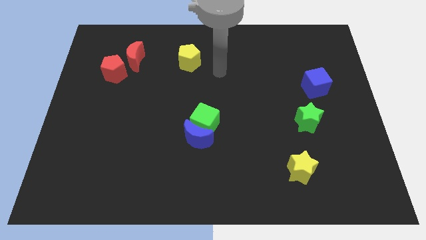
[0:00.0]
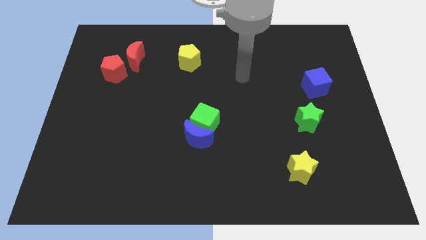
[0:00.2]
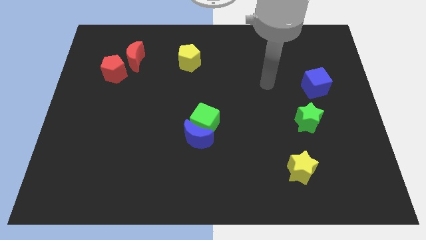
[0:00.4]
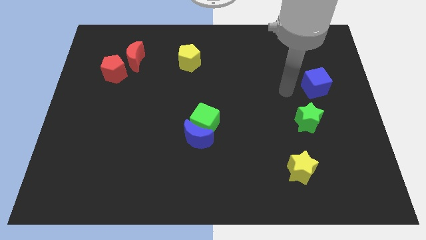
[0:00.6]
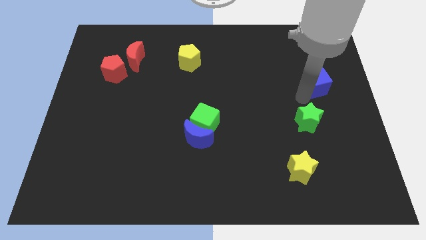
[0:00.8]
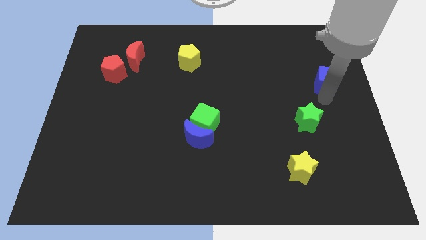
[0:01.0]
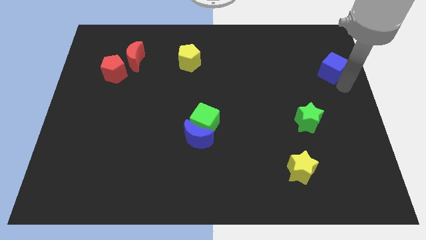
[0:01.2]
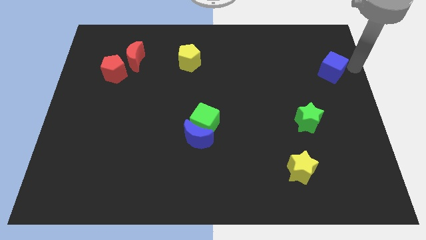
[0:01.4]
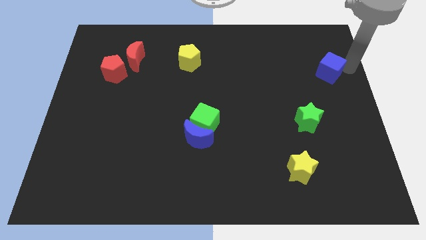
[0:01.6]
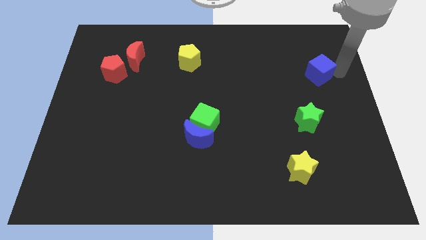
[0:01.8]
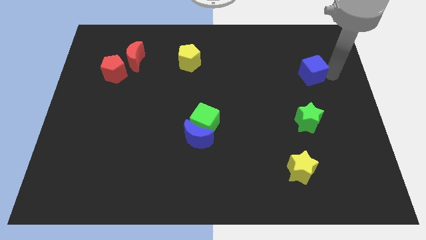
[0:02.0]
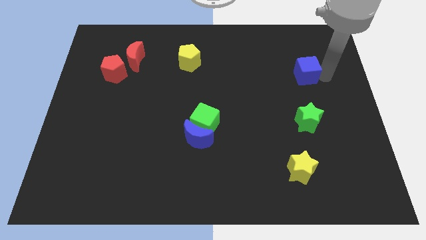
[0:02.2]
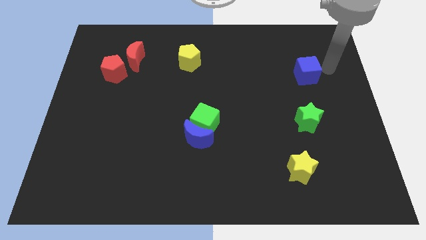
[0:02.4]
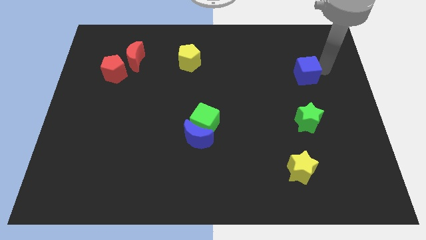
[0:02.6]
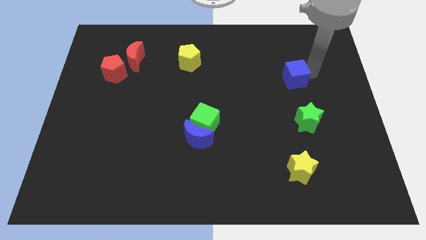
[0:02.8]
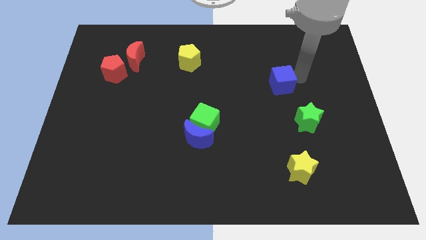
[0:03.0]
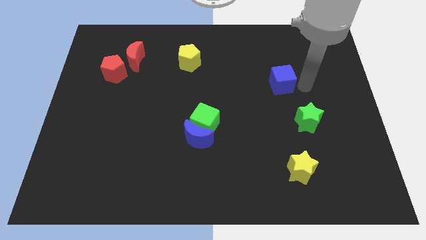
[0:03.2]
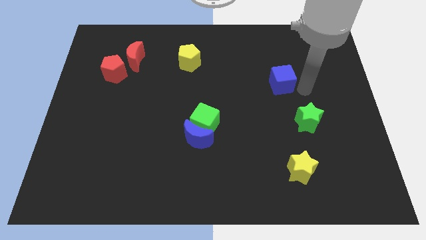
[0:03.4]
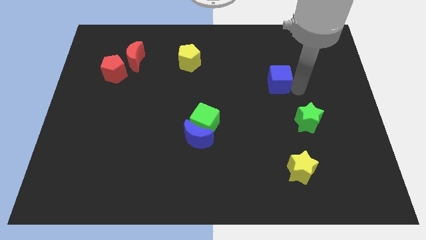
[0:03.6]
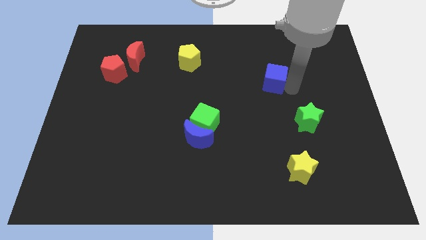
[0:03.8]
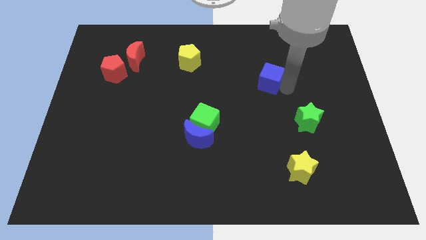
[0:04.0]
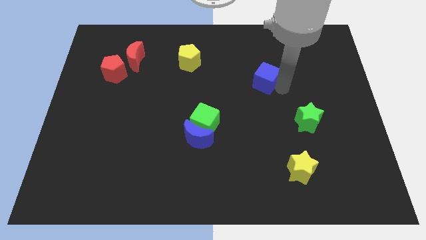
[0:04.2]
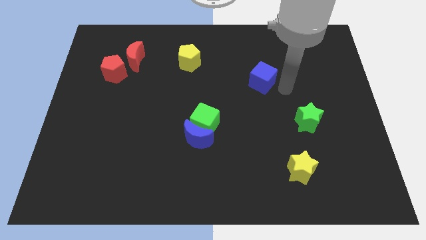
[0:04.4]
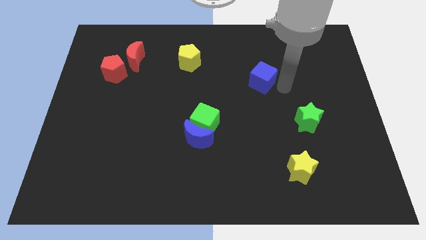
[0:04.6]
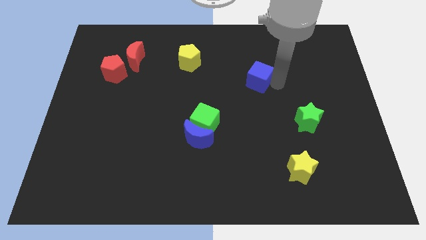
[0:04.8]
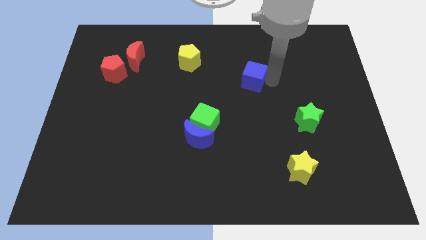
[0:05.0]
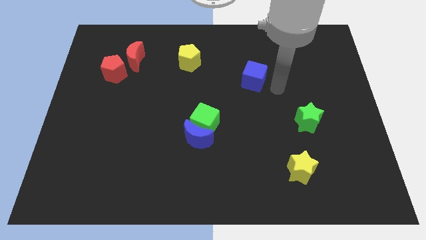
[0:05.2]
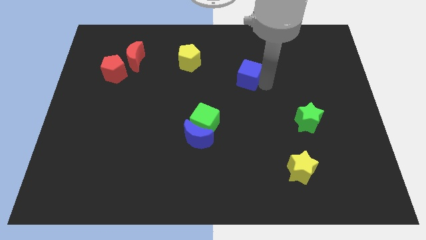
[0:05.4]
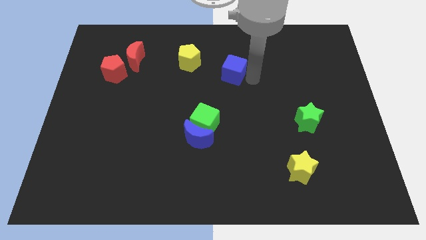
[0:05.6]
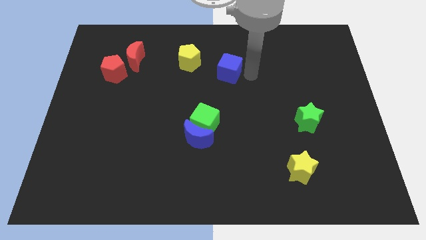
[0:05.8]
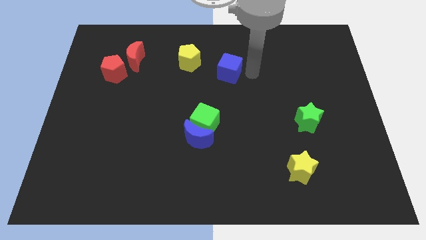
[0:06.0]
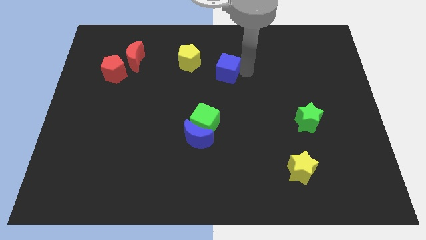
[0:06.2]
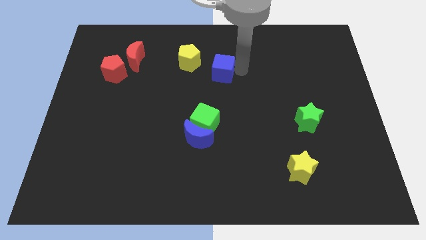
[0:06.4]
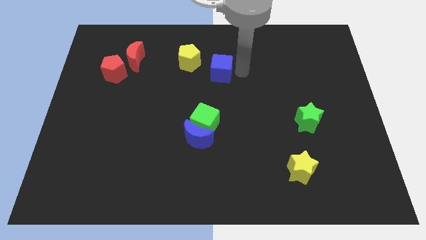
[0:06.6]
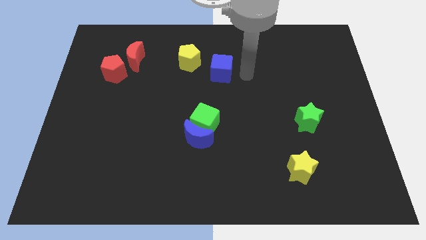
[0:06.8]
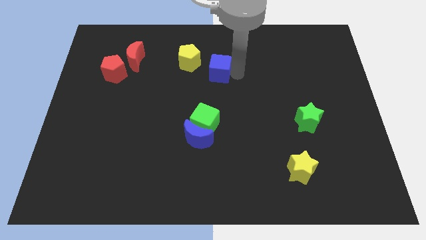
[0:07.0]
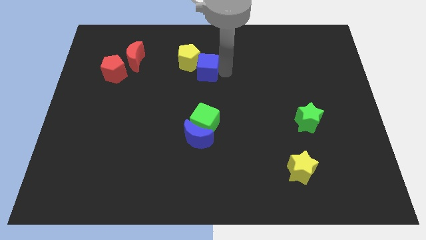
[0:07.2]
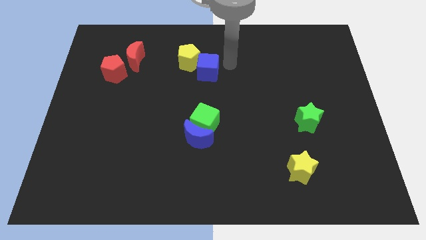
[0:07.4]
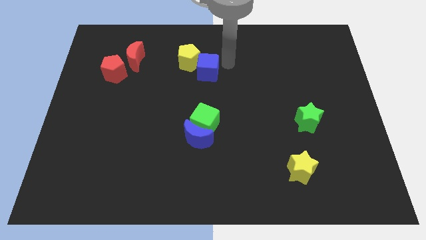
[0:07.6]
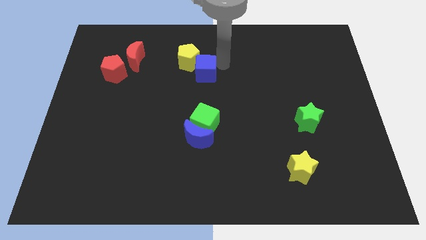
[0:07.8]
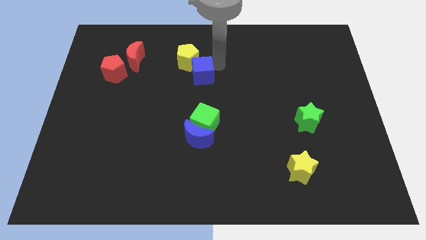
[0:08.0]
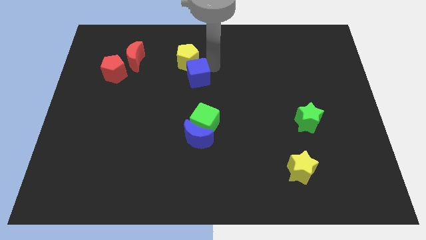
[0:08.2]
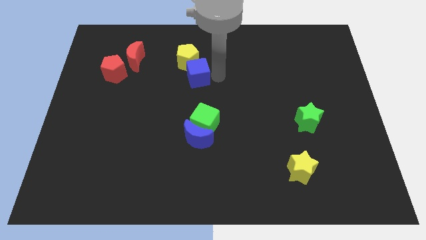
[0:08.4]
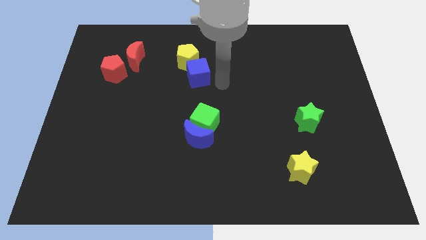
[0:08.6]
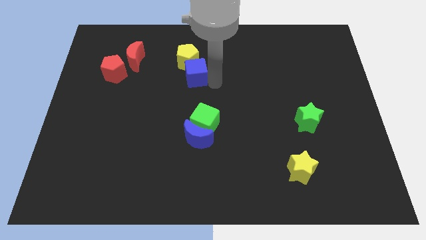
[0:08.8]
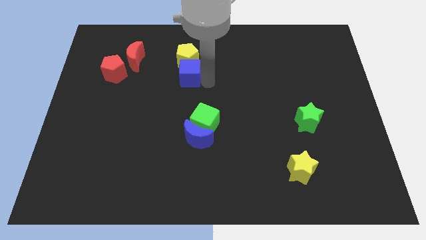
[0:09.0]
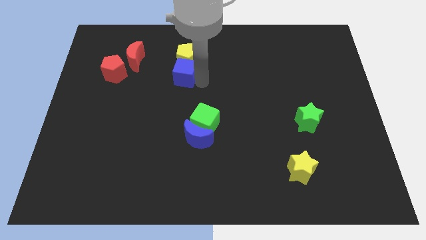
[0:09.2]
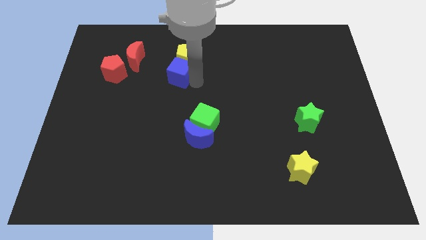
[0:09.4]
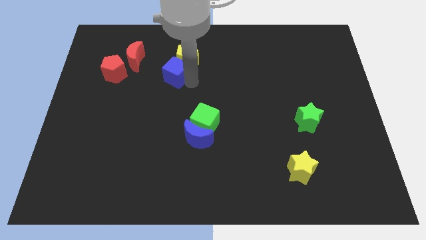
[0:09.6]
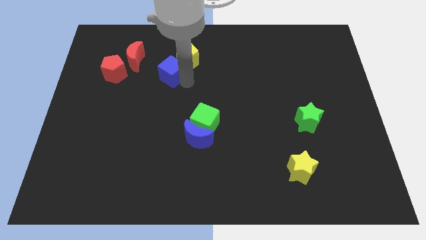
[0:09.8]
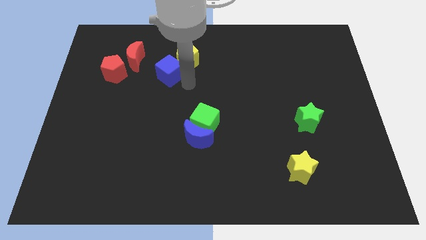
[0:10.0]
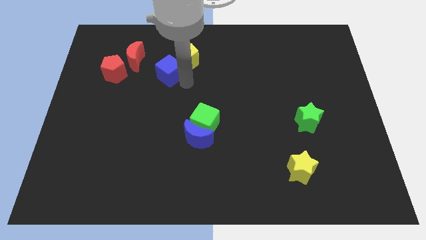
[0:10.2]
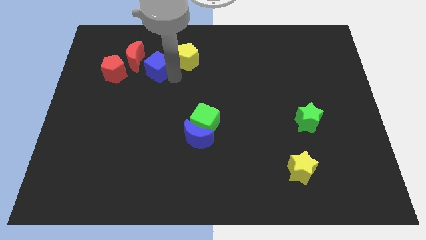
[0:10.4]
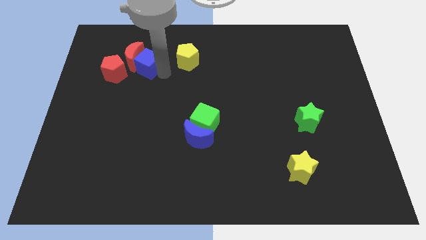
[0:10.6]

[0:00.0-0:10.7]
put the blue cube towards the red moon

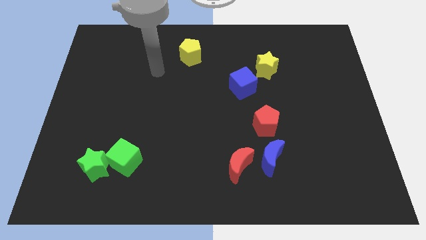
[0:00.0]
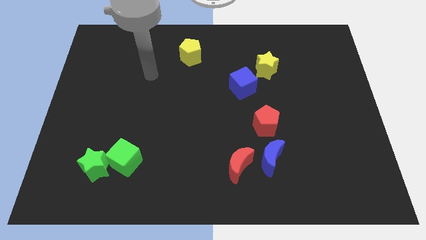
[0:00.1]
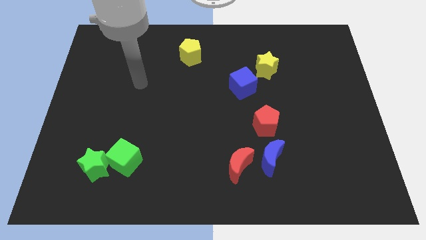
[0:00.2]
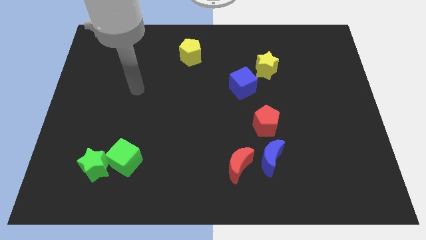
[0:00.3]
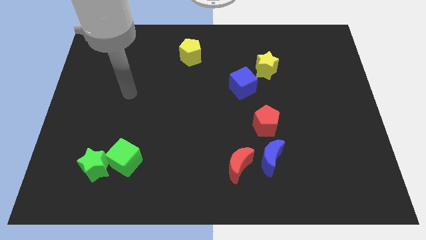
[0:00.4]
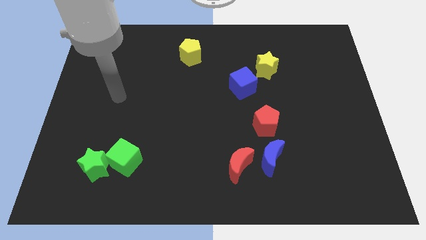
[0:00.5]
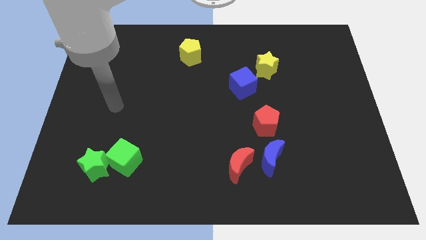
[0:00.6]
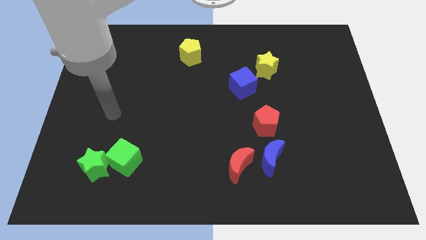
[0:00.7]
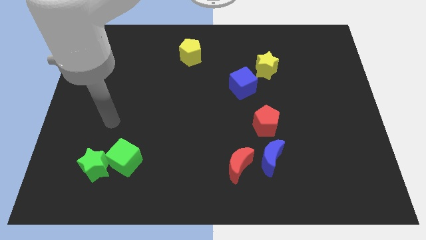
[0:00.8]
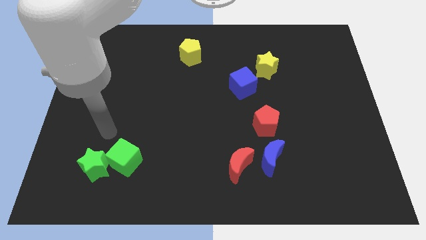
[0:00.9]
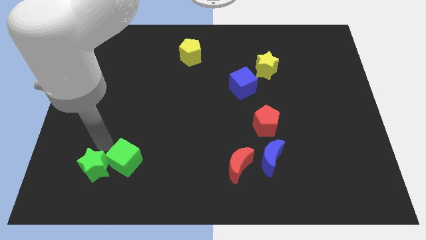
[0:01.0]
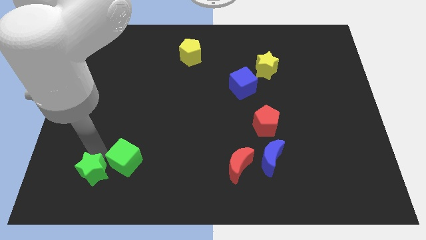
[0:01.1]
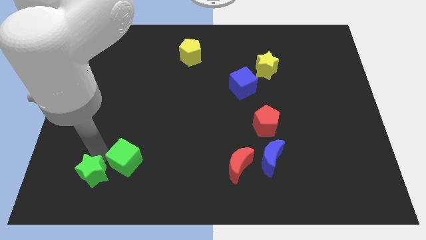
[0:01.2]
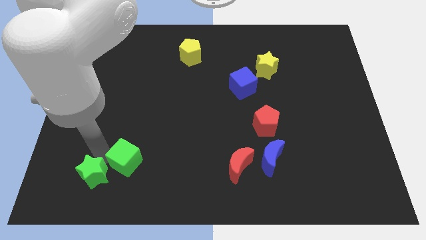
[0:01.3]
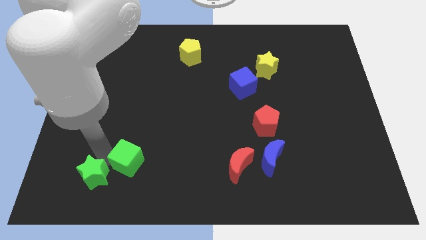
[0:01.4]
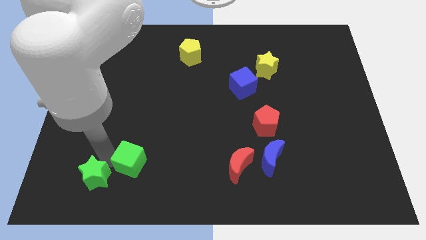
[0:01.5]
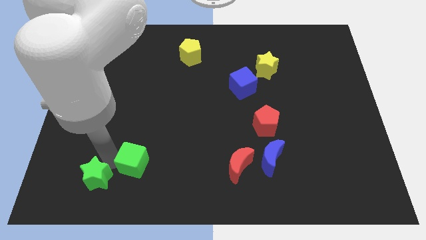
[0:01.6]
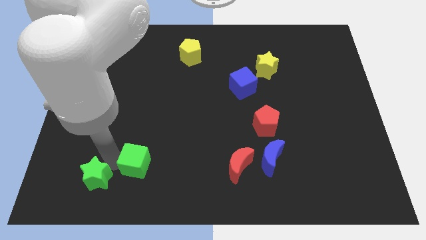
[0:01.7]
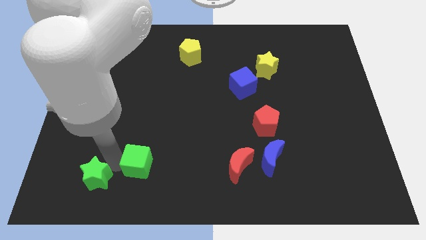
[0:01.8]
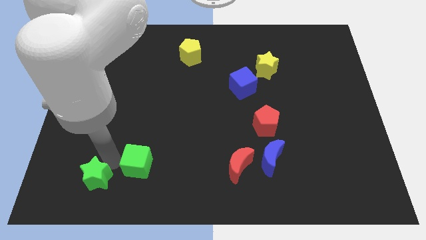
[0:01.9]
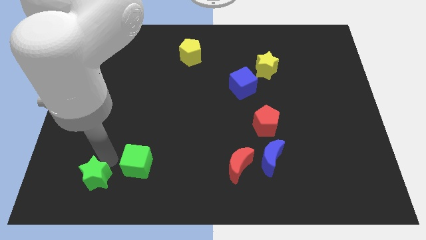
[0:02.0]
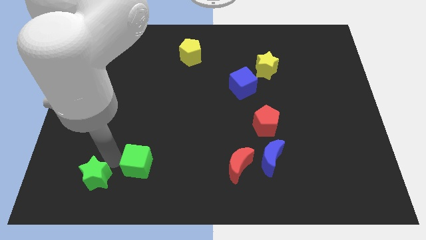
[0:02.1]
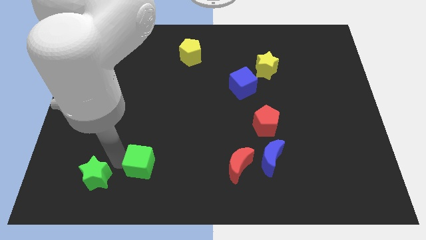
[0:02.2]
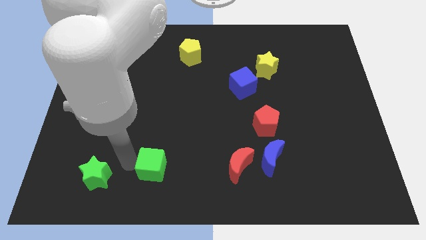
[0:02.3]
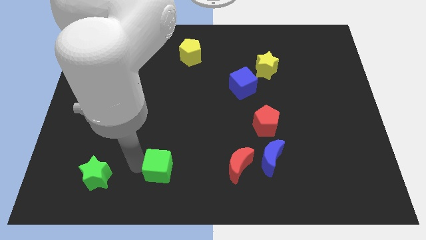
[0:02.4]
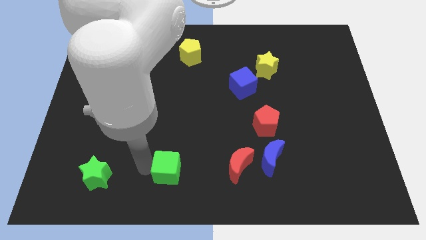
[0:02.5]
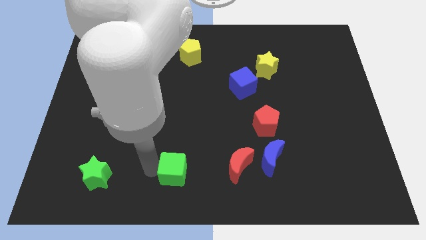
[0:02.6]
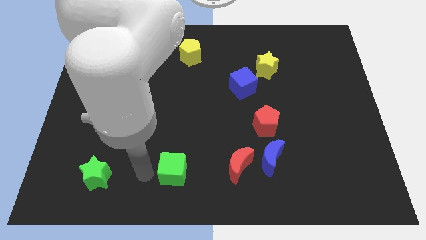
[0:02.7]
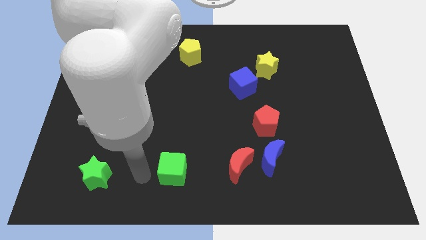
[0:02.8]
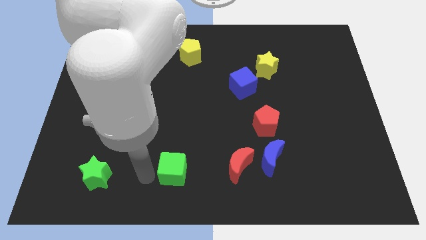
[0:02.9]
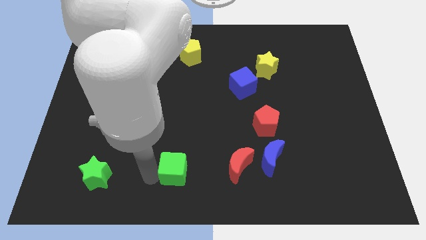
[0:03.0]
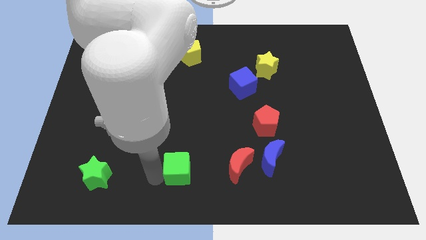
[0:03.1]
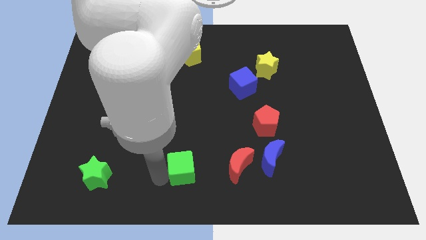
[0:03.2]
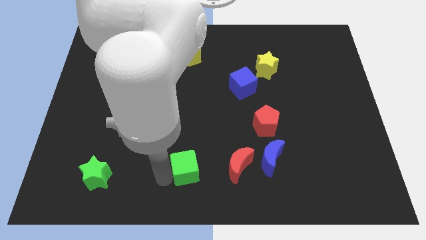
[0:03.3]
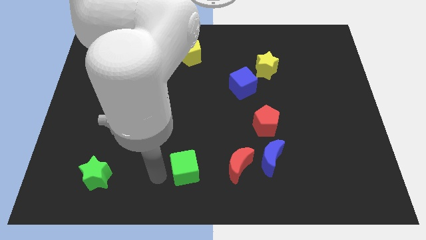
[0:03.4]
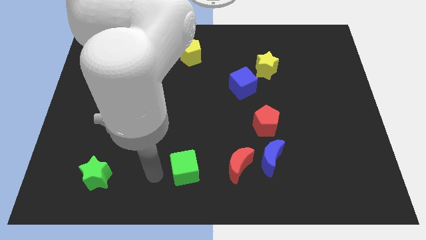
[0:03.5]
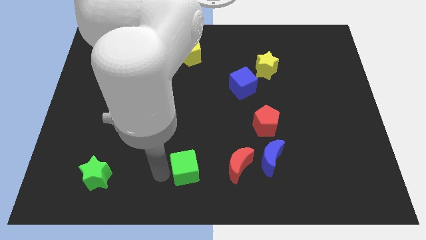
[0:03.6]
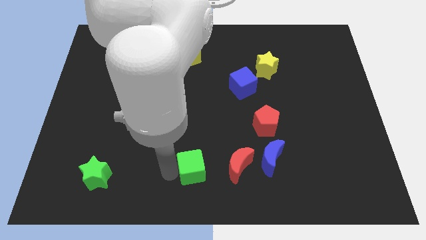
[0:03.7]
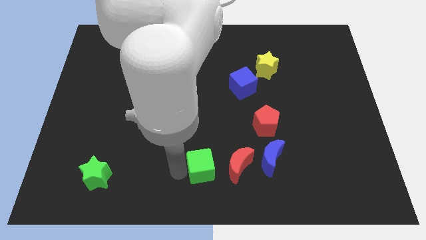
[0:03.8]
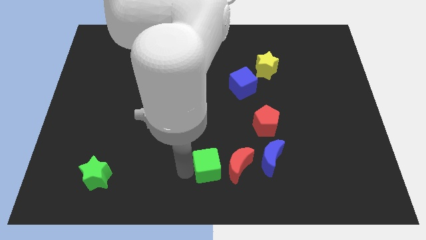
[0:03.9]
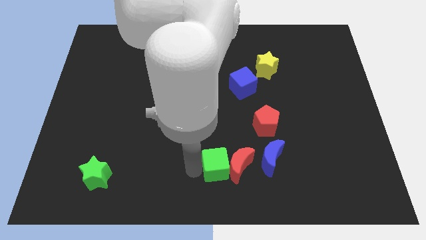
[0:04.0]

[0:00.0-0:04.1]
push the green cube close to the red moon
